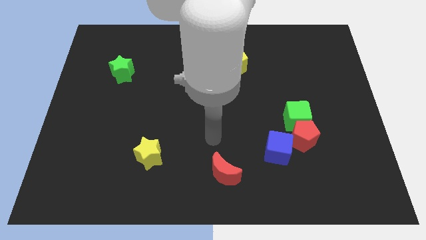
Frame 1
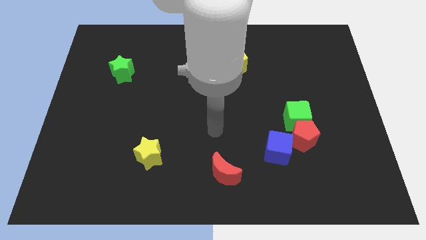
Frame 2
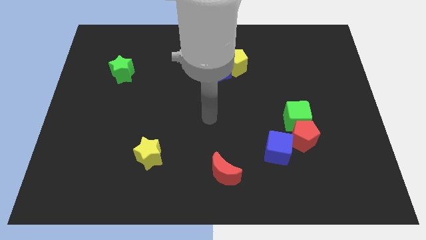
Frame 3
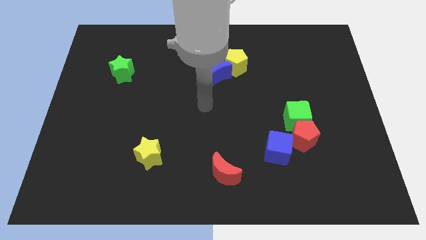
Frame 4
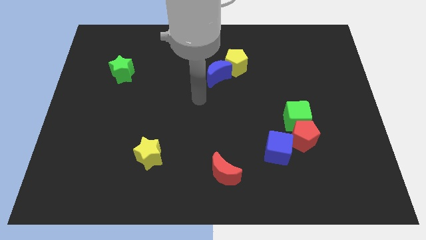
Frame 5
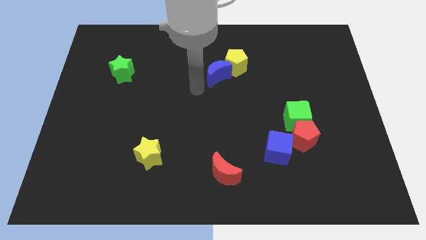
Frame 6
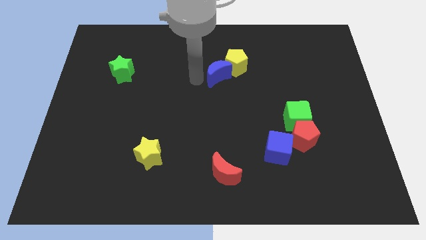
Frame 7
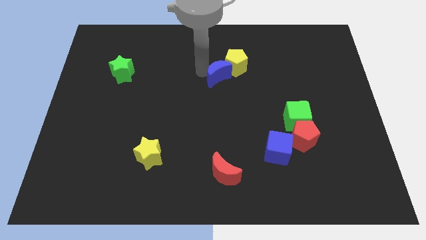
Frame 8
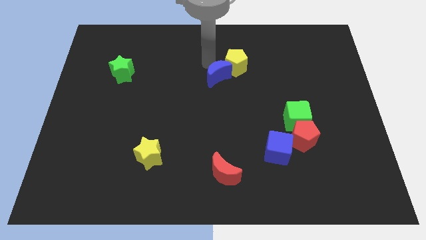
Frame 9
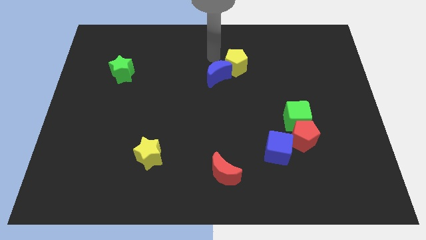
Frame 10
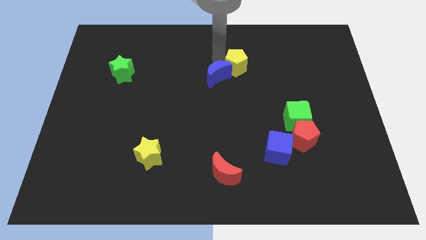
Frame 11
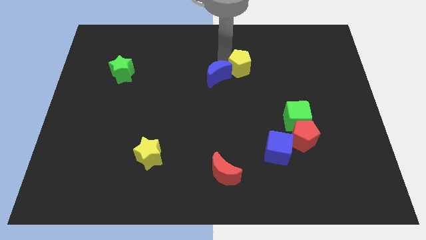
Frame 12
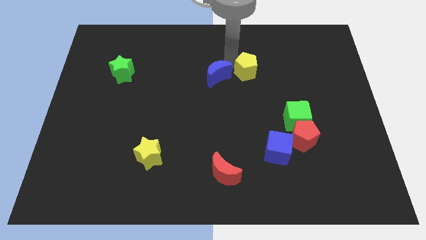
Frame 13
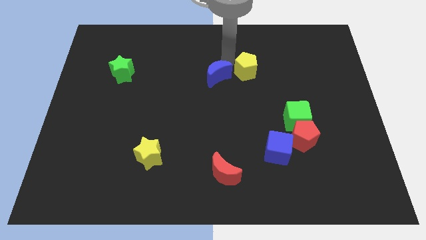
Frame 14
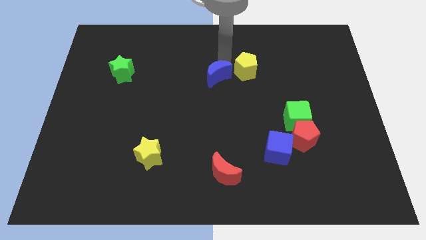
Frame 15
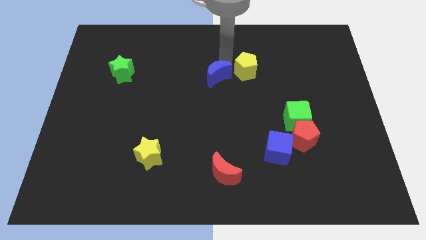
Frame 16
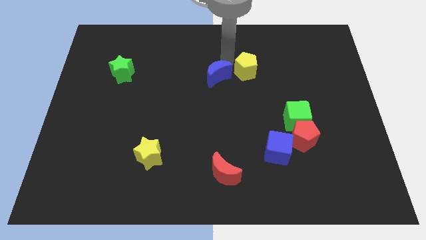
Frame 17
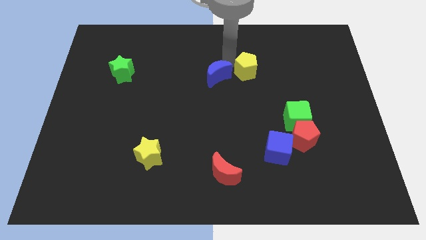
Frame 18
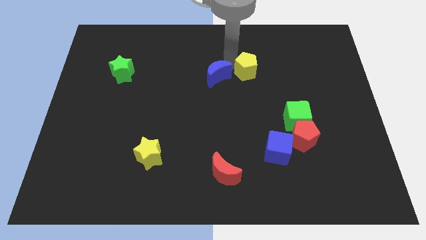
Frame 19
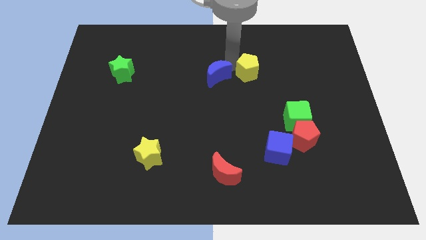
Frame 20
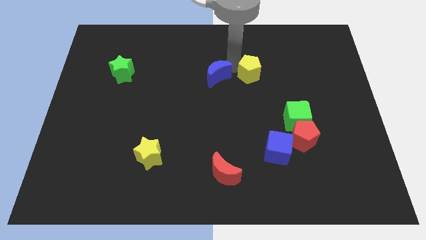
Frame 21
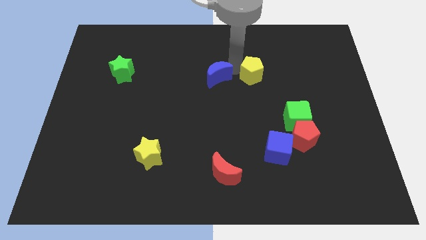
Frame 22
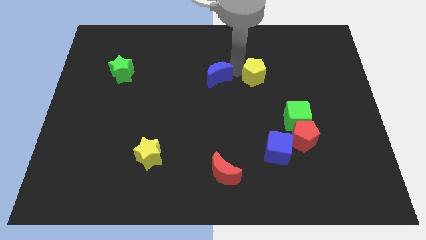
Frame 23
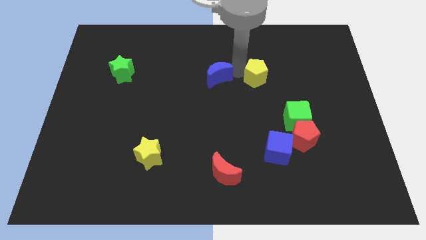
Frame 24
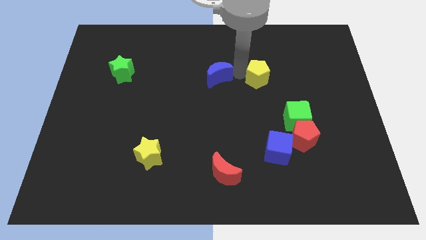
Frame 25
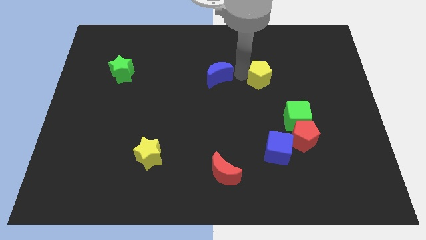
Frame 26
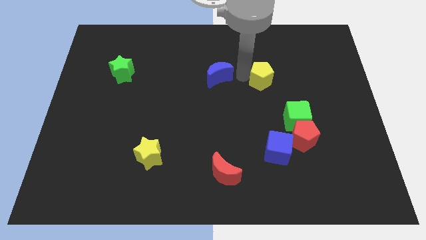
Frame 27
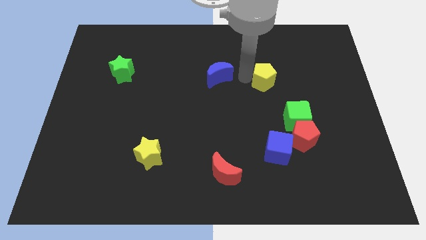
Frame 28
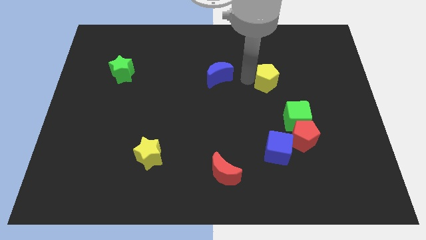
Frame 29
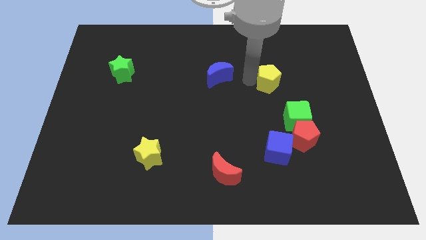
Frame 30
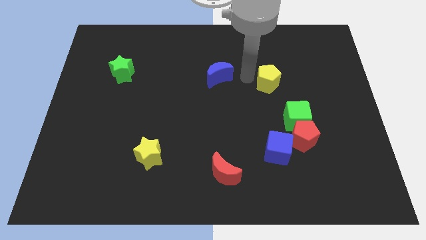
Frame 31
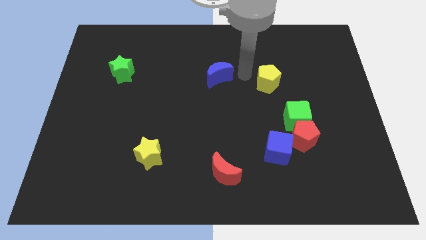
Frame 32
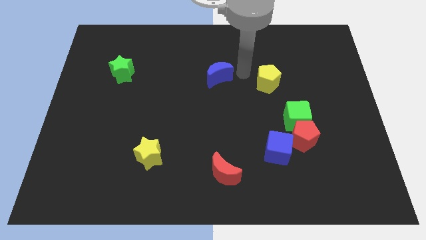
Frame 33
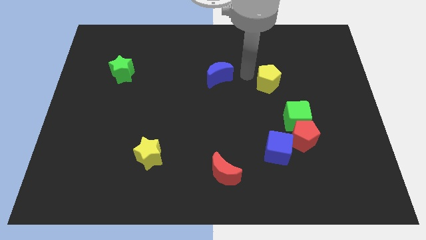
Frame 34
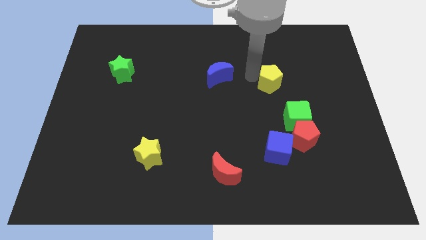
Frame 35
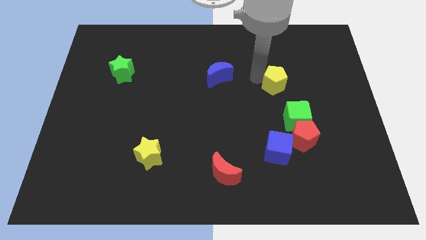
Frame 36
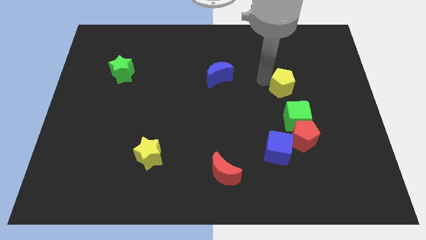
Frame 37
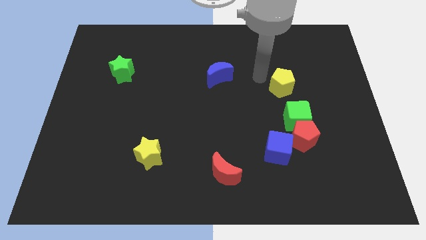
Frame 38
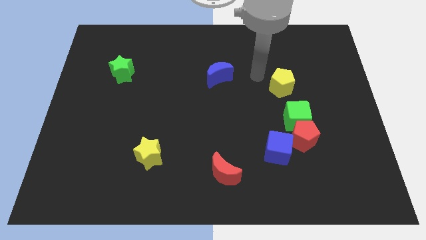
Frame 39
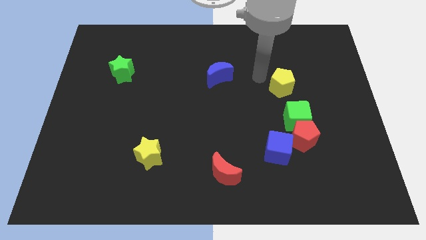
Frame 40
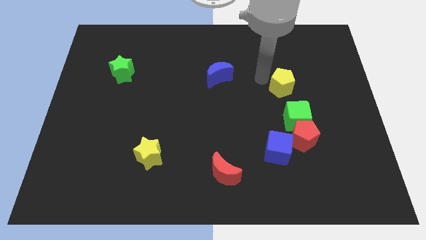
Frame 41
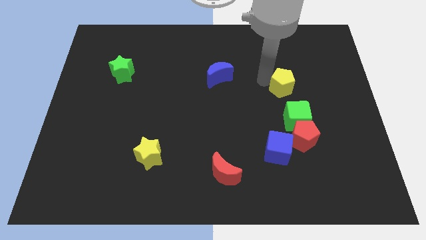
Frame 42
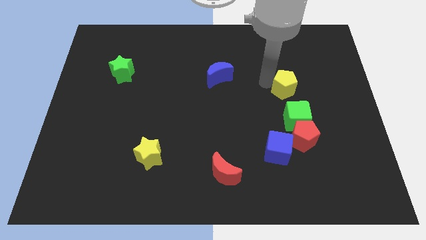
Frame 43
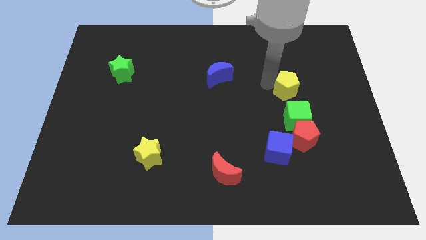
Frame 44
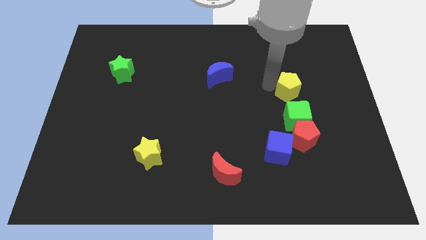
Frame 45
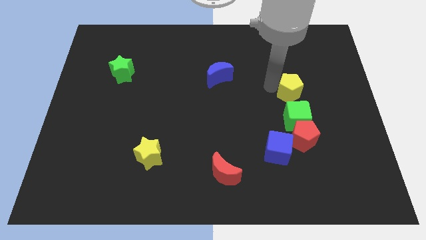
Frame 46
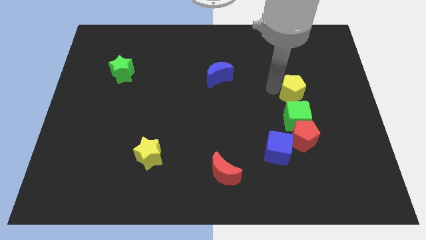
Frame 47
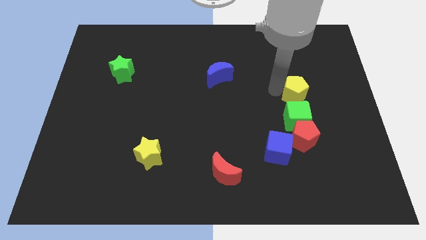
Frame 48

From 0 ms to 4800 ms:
push the yellow pentagon to the top right side of the green cube

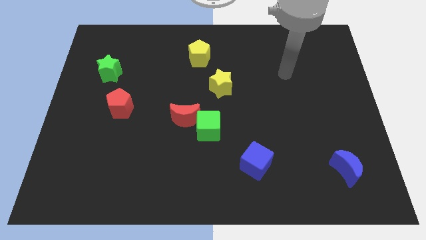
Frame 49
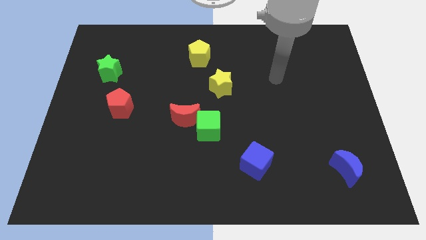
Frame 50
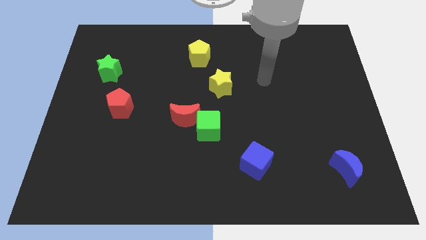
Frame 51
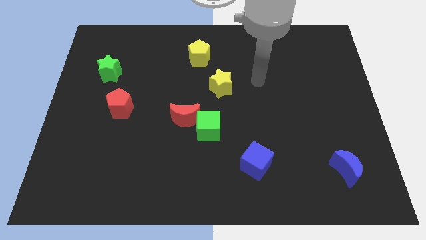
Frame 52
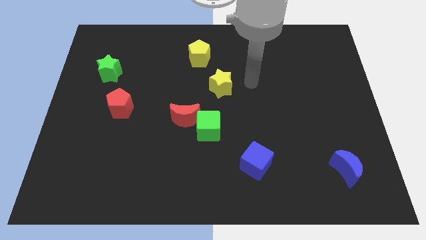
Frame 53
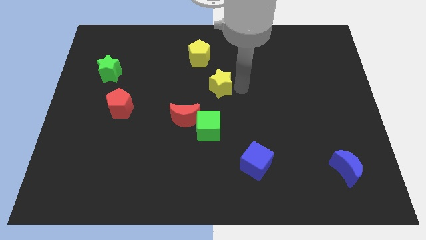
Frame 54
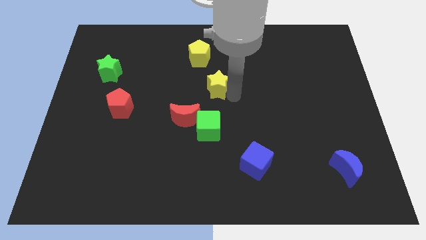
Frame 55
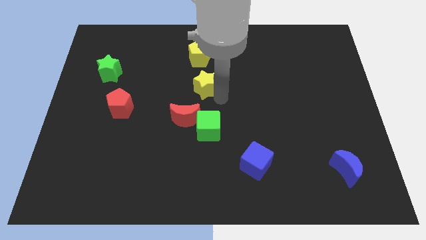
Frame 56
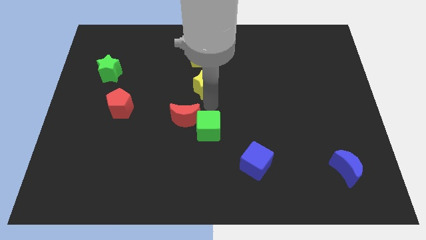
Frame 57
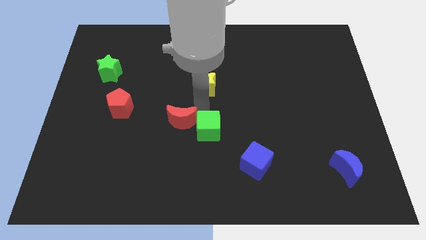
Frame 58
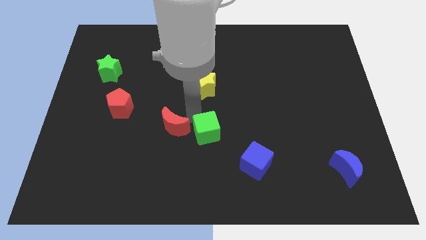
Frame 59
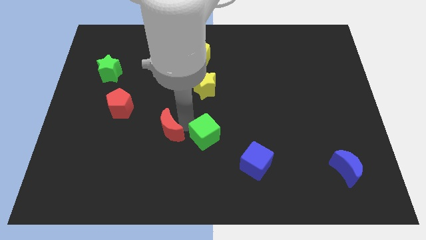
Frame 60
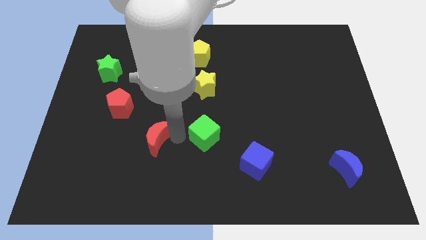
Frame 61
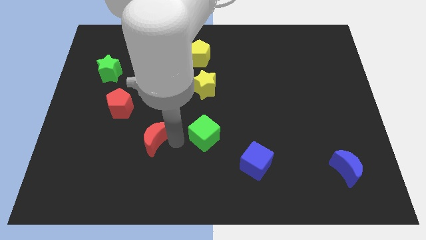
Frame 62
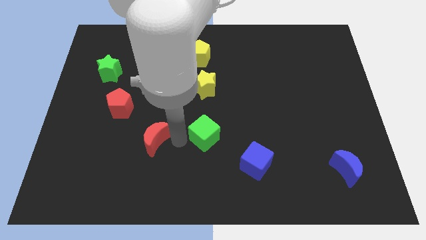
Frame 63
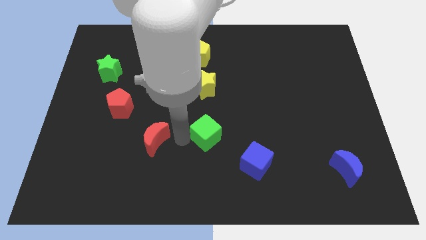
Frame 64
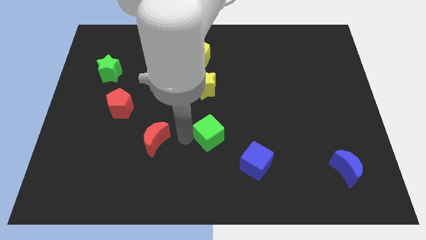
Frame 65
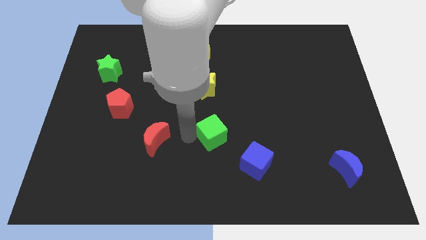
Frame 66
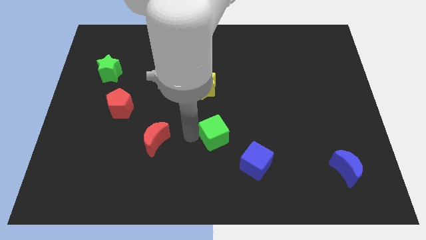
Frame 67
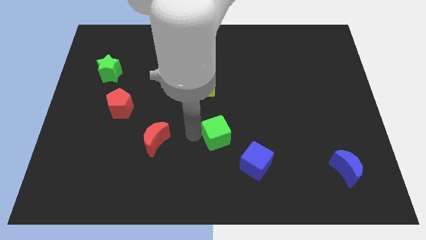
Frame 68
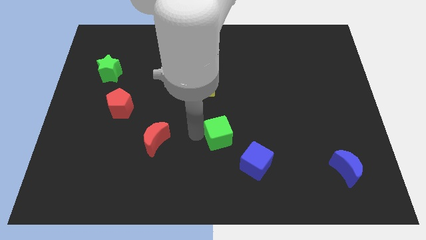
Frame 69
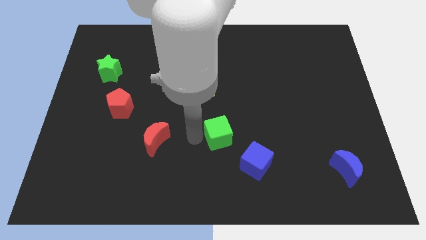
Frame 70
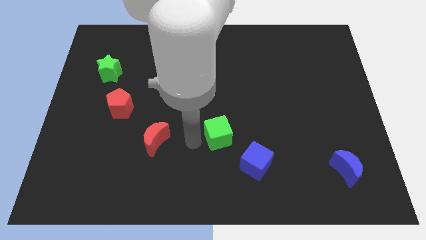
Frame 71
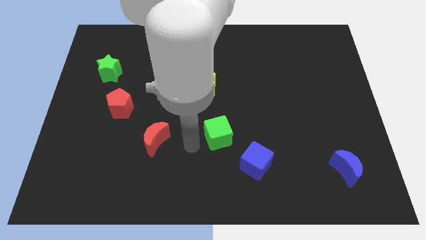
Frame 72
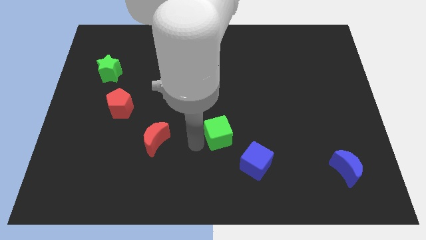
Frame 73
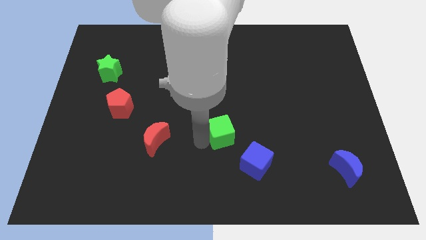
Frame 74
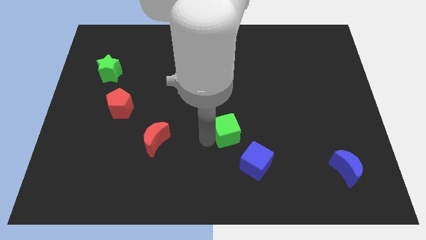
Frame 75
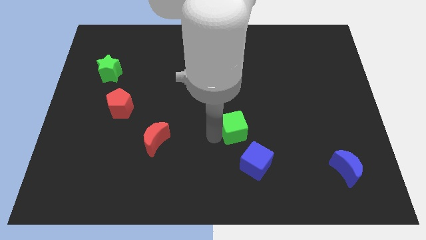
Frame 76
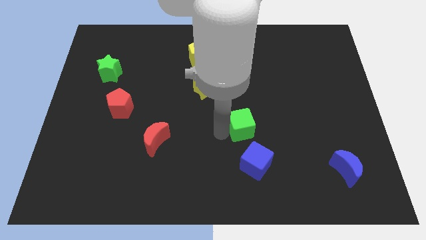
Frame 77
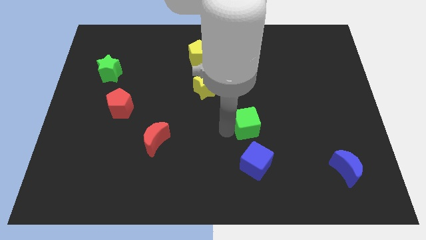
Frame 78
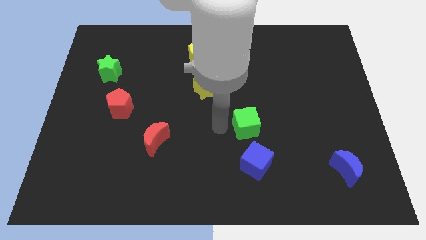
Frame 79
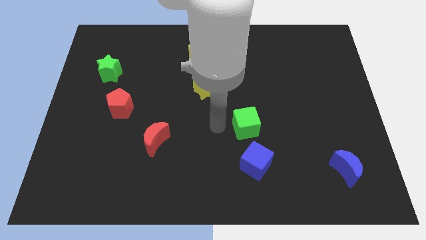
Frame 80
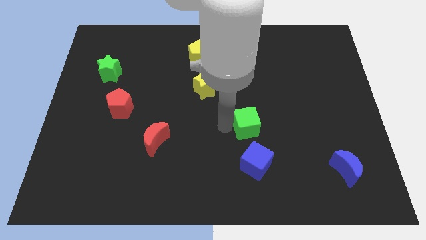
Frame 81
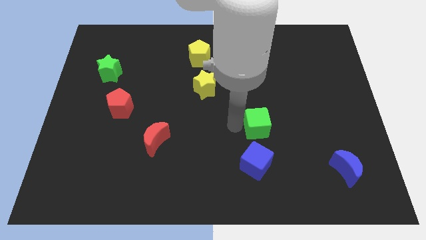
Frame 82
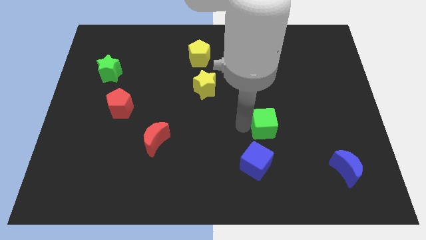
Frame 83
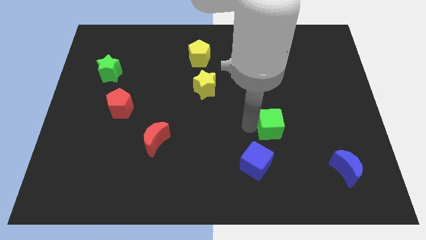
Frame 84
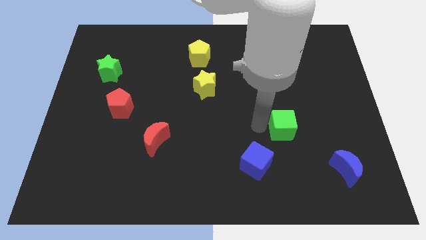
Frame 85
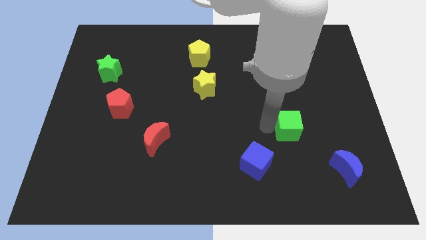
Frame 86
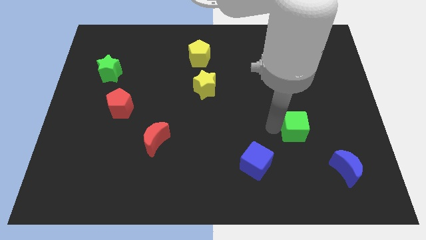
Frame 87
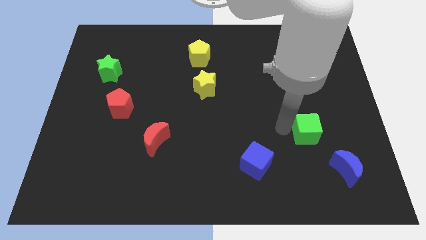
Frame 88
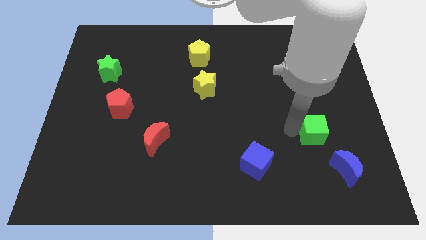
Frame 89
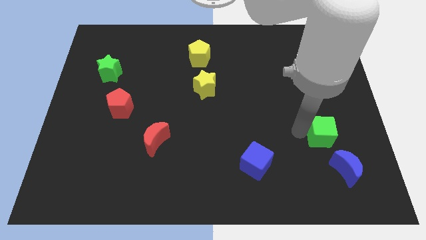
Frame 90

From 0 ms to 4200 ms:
move the green cube above the blue moon
